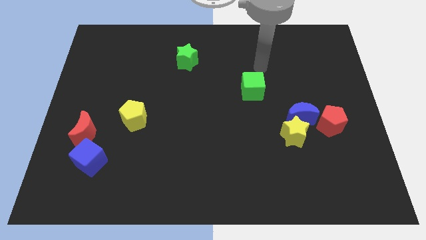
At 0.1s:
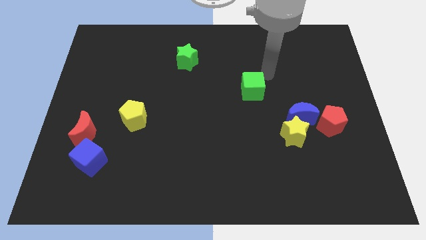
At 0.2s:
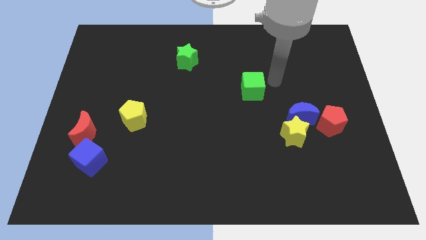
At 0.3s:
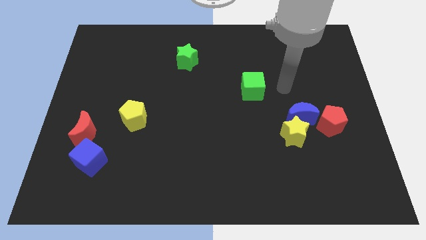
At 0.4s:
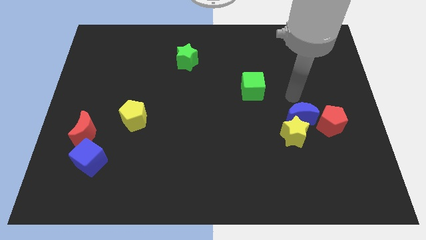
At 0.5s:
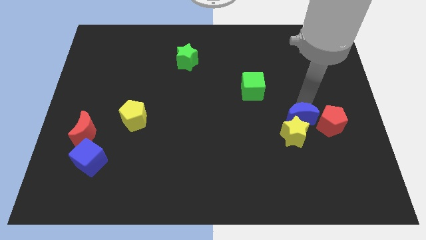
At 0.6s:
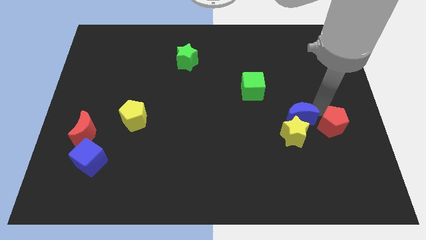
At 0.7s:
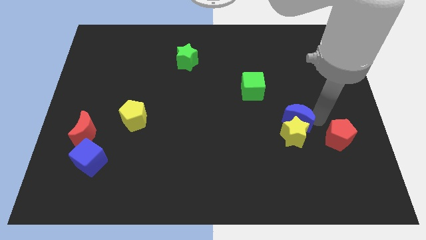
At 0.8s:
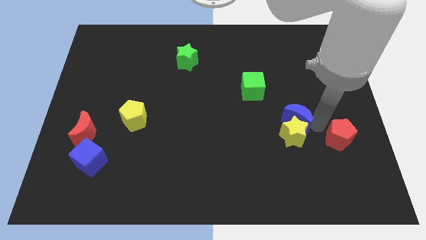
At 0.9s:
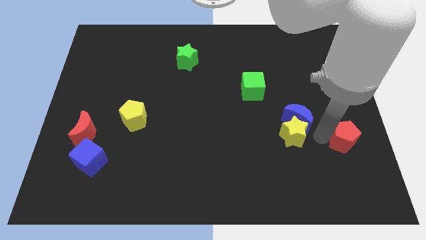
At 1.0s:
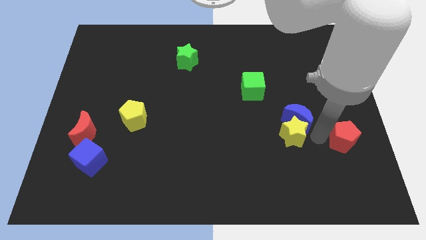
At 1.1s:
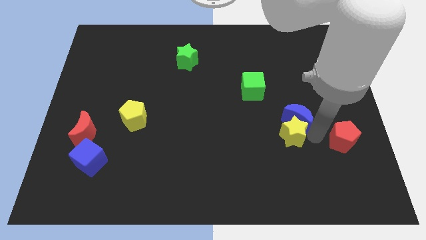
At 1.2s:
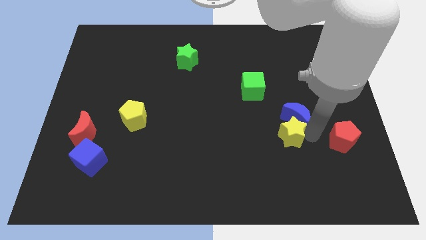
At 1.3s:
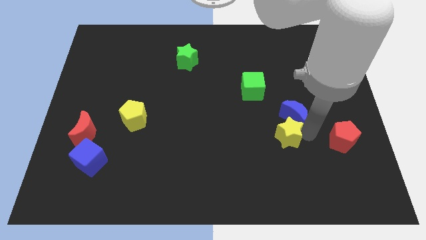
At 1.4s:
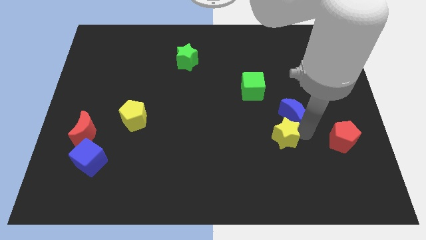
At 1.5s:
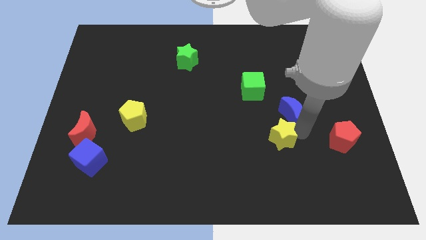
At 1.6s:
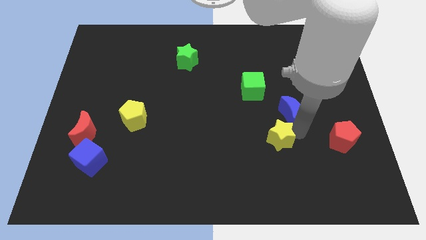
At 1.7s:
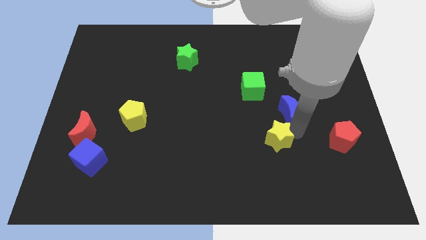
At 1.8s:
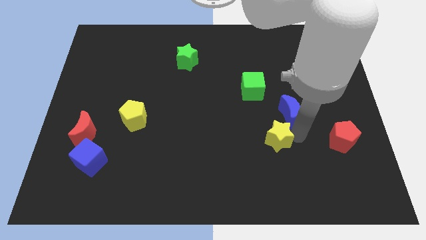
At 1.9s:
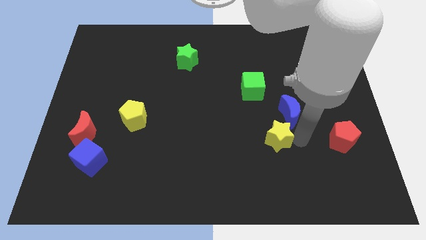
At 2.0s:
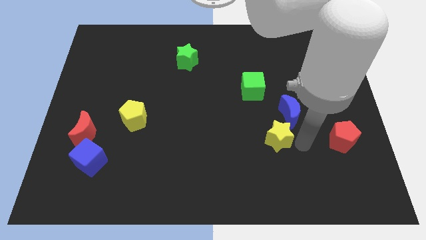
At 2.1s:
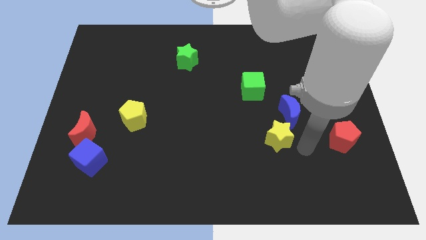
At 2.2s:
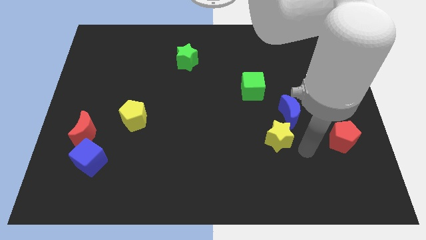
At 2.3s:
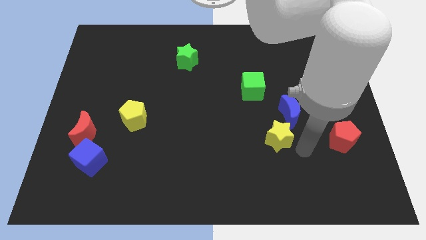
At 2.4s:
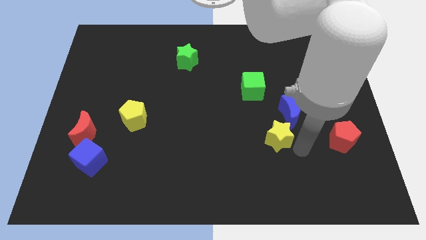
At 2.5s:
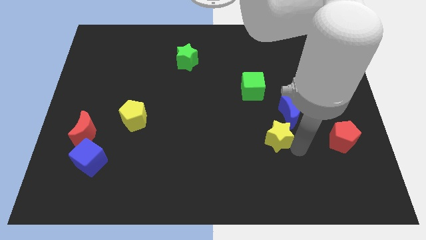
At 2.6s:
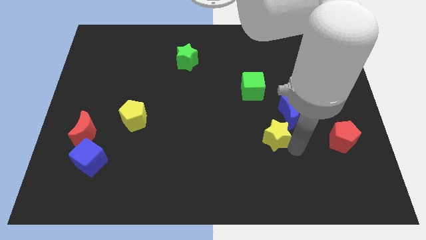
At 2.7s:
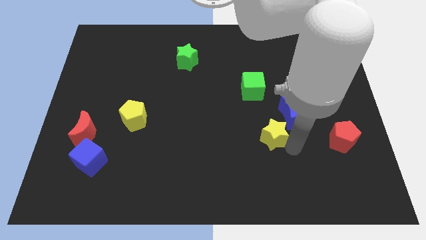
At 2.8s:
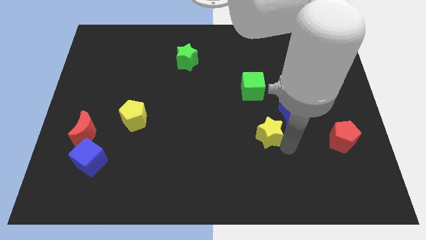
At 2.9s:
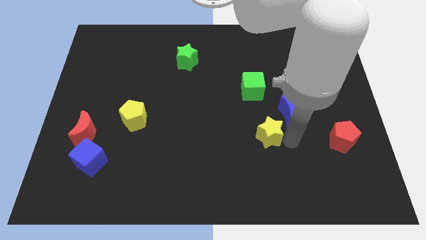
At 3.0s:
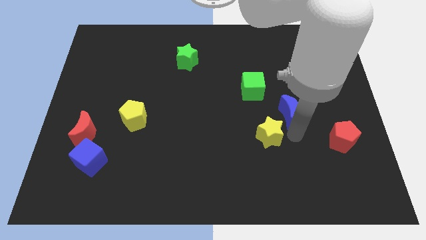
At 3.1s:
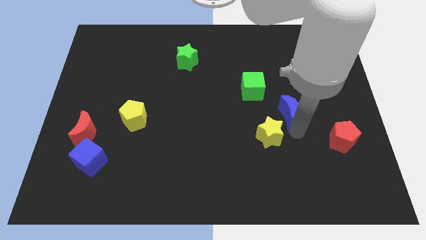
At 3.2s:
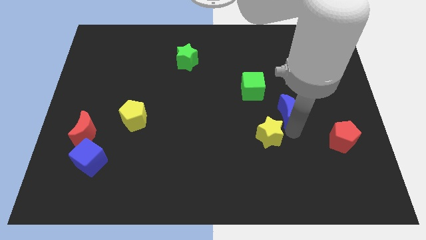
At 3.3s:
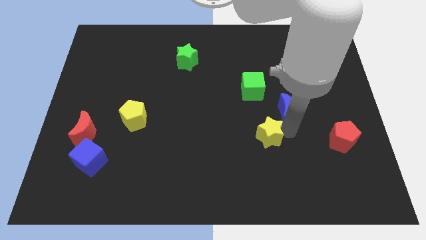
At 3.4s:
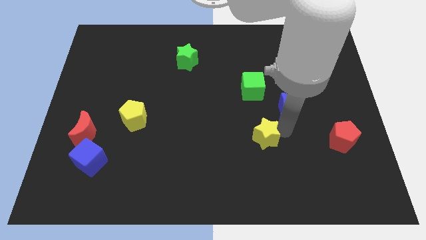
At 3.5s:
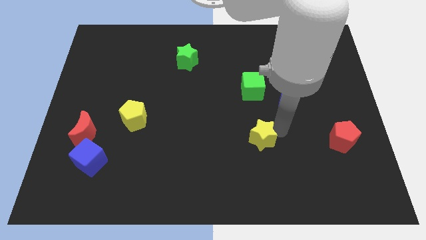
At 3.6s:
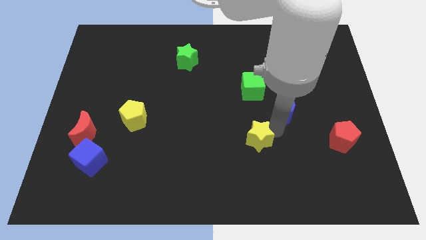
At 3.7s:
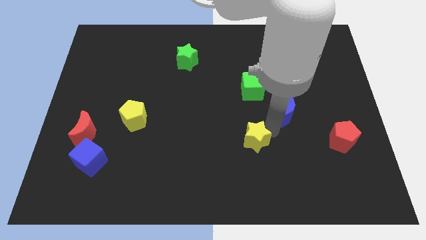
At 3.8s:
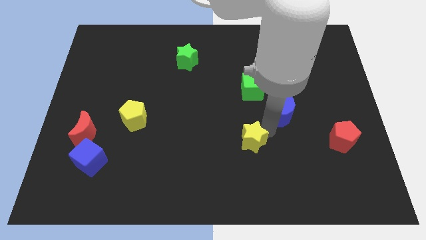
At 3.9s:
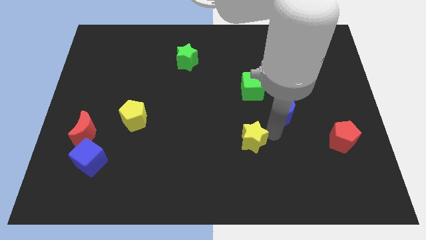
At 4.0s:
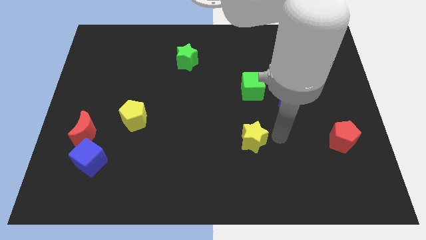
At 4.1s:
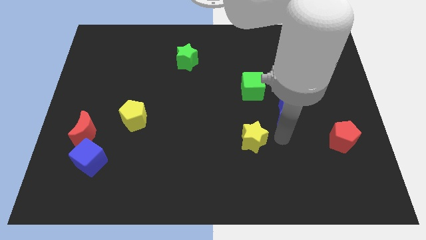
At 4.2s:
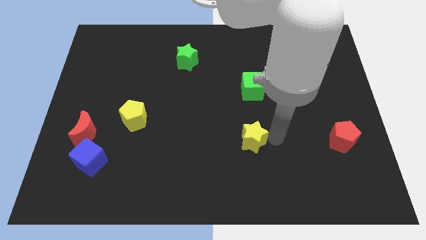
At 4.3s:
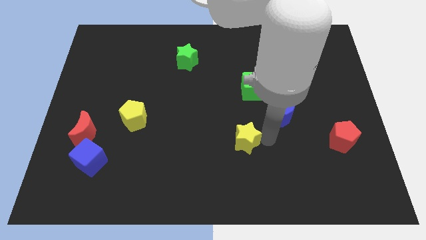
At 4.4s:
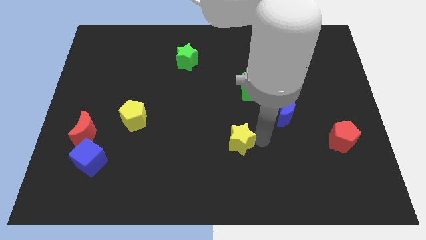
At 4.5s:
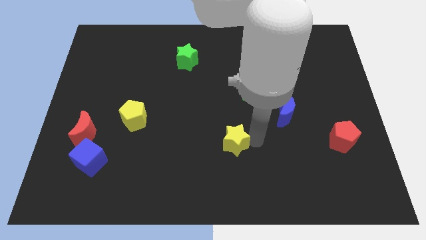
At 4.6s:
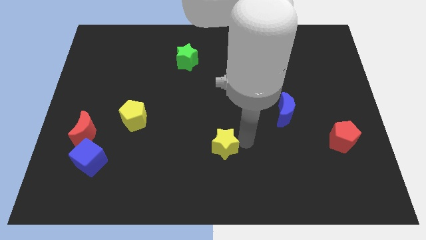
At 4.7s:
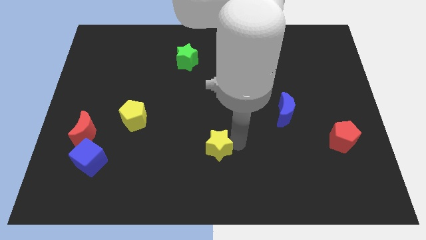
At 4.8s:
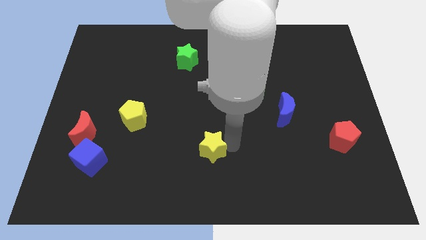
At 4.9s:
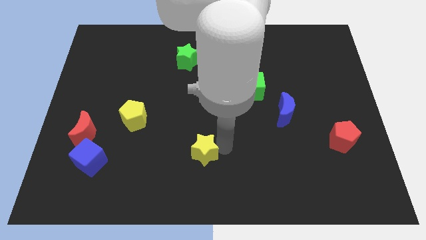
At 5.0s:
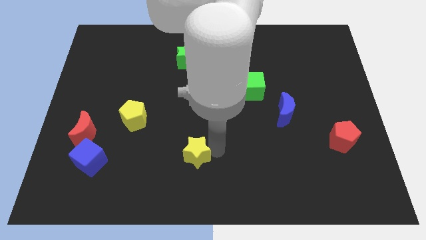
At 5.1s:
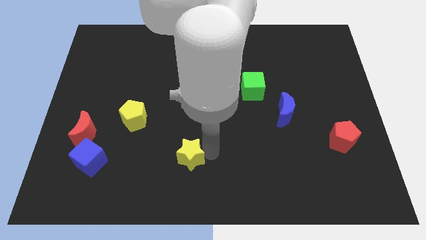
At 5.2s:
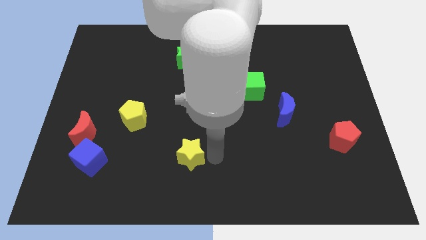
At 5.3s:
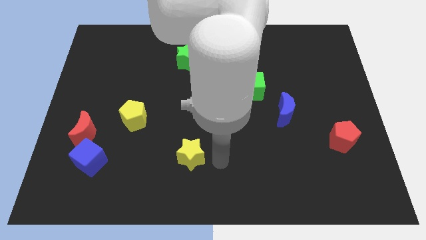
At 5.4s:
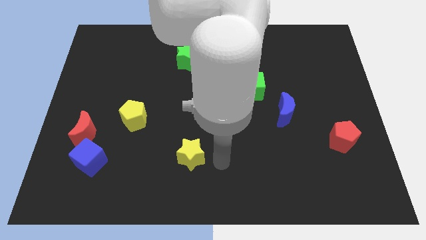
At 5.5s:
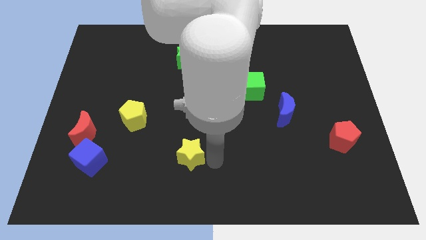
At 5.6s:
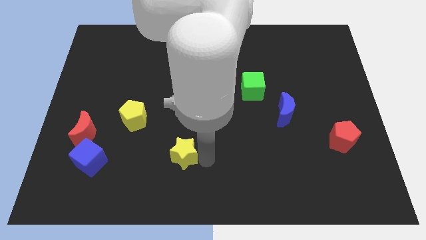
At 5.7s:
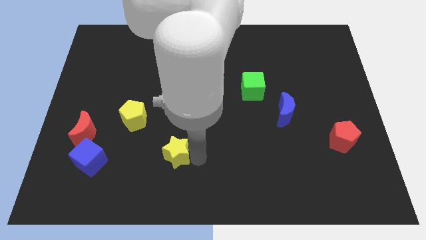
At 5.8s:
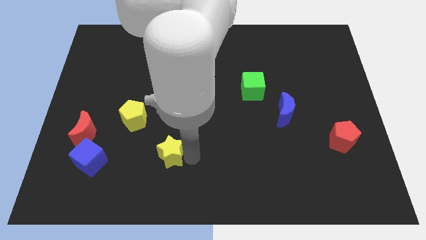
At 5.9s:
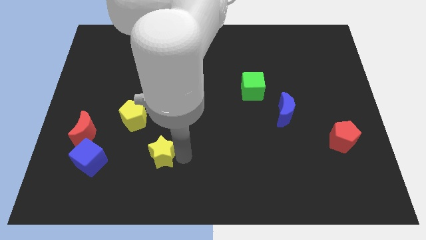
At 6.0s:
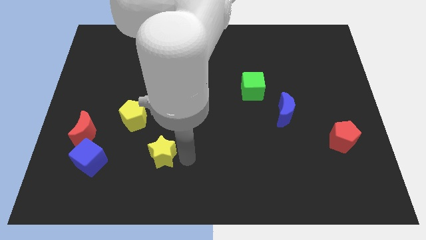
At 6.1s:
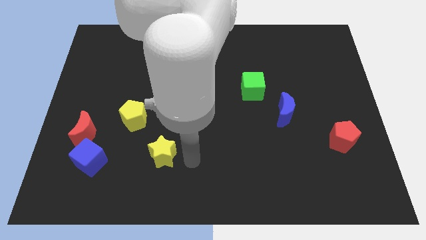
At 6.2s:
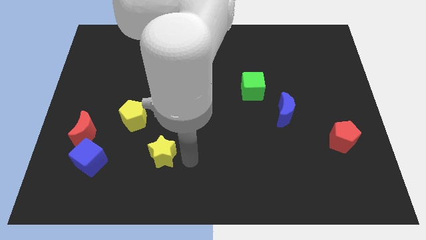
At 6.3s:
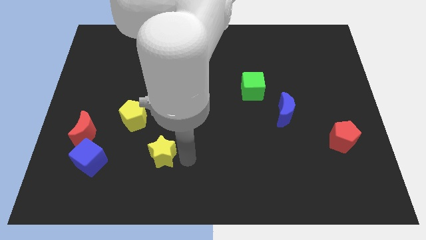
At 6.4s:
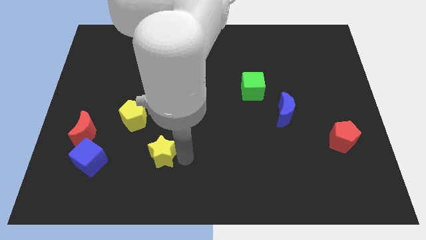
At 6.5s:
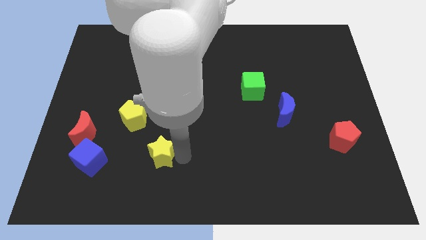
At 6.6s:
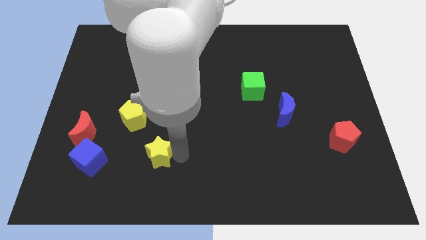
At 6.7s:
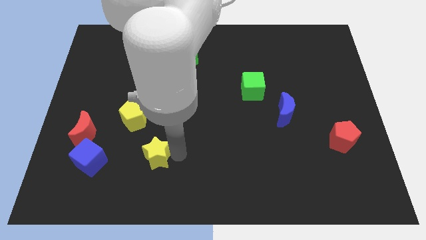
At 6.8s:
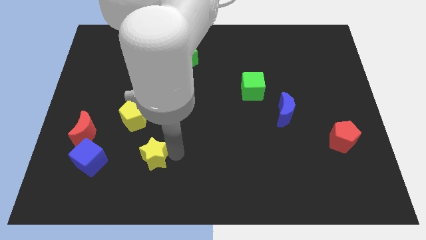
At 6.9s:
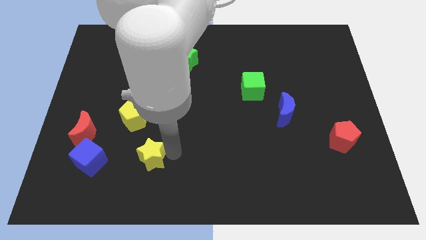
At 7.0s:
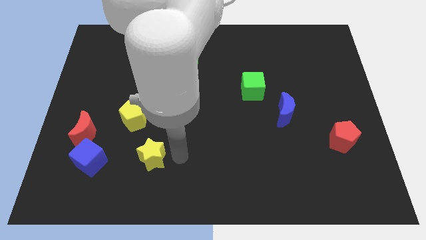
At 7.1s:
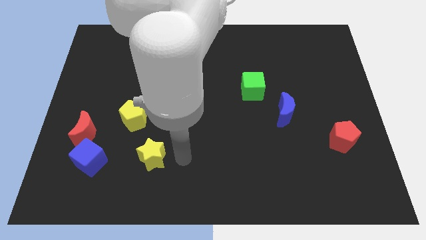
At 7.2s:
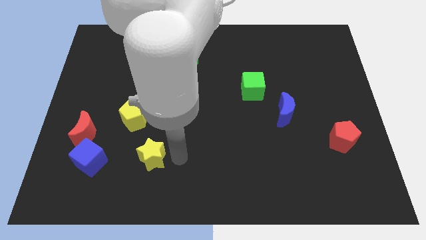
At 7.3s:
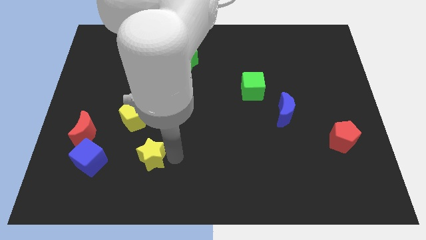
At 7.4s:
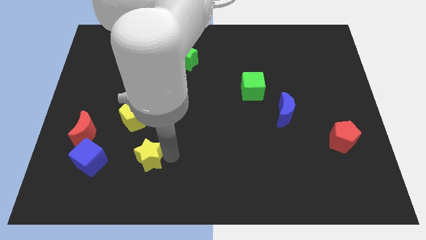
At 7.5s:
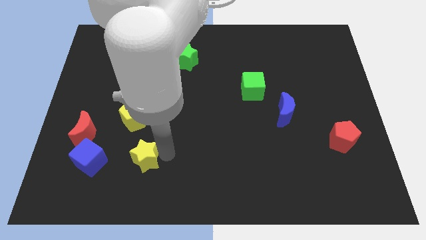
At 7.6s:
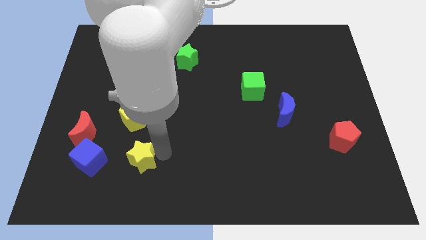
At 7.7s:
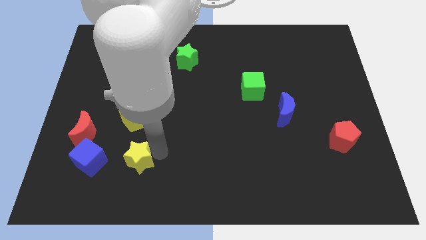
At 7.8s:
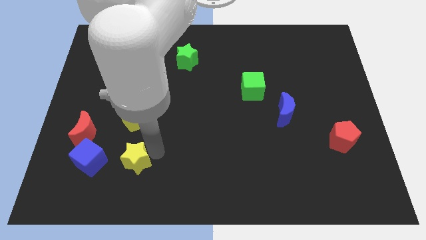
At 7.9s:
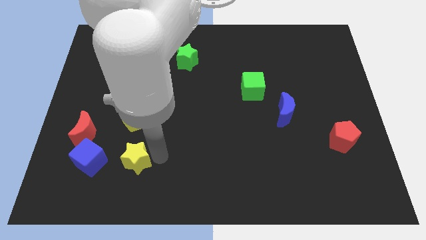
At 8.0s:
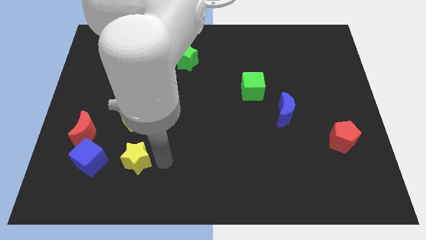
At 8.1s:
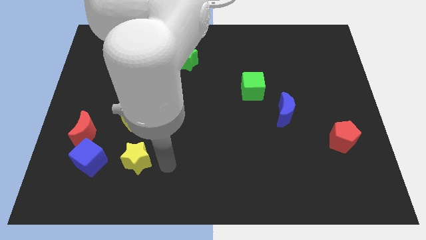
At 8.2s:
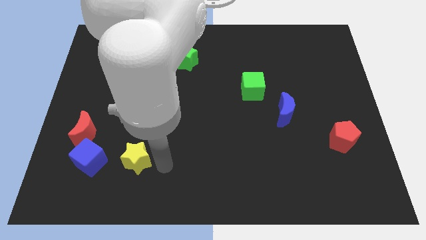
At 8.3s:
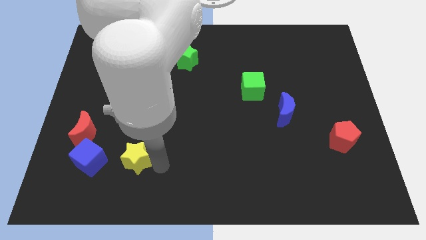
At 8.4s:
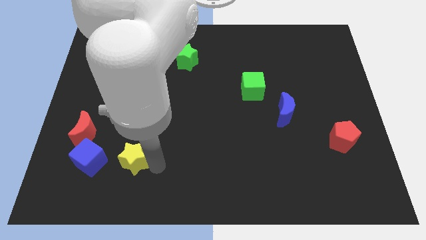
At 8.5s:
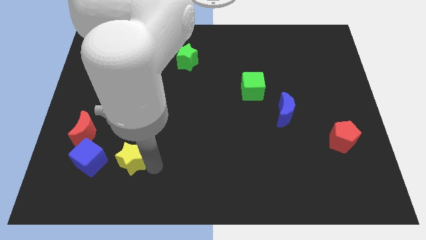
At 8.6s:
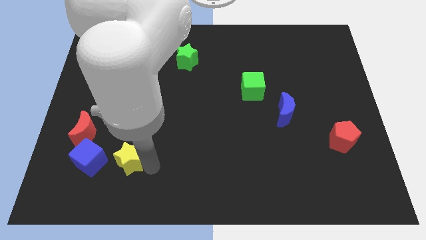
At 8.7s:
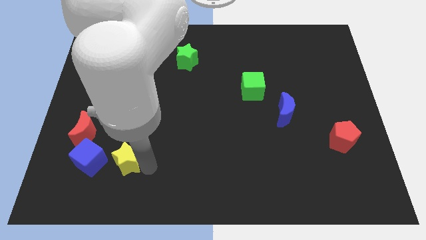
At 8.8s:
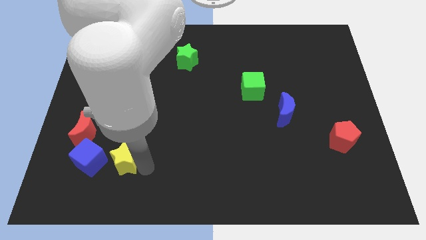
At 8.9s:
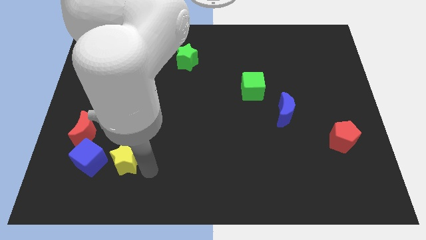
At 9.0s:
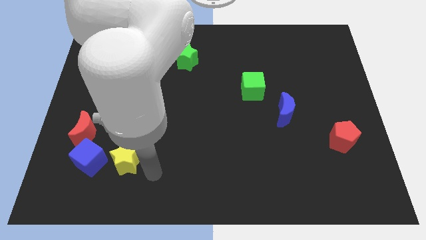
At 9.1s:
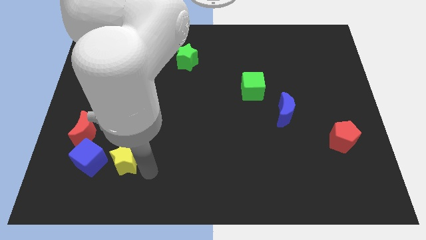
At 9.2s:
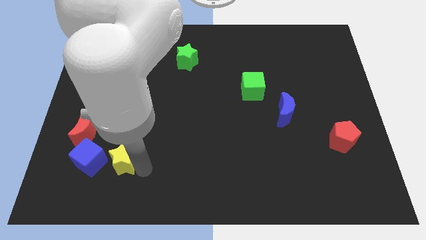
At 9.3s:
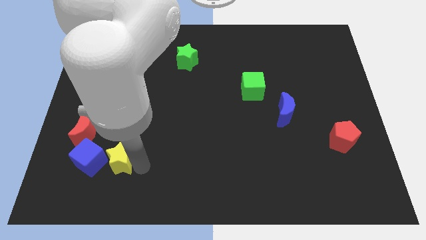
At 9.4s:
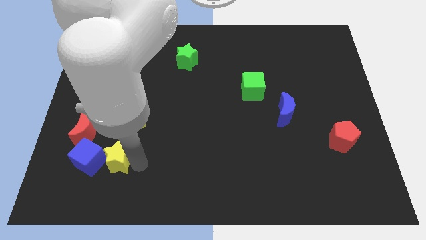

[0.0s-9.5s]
move the yellow star next to the blue cube
